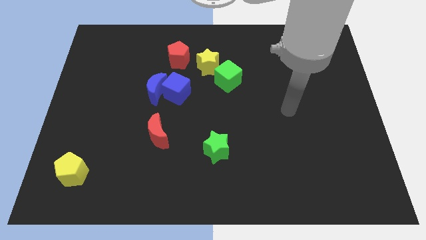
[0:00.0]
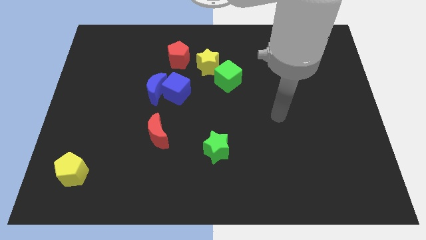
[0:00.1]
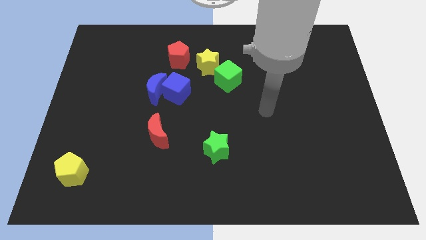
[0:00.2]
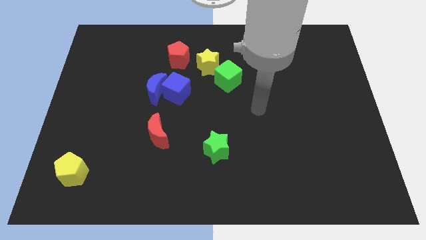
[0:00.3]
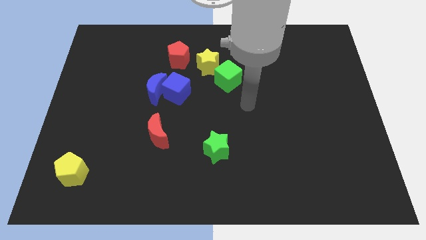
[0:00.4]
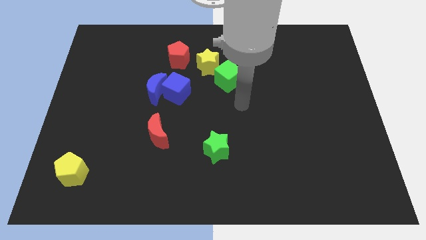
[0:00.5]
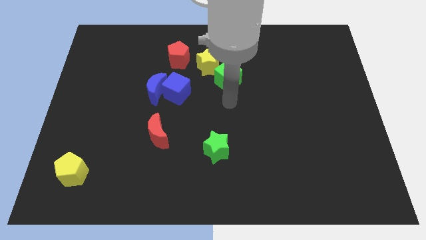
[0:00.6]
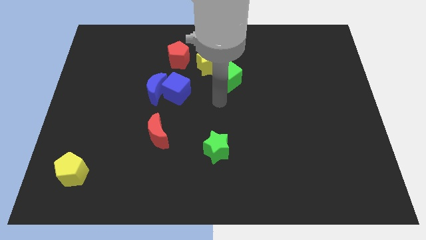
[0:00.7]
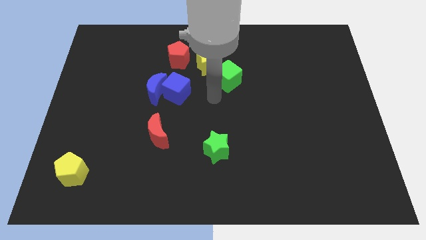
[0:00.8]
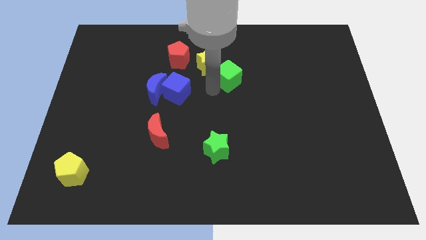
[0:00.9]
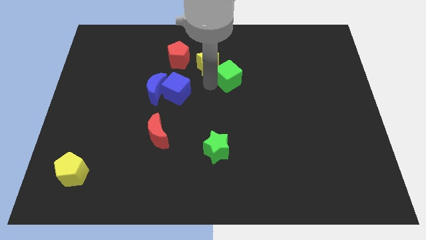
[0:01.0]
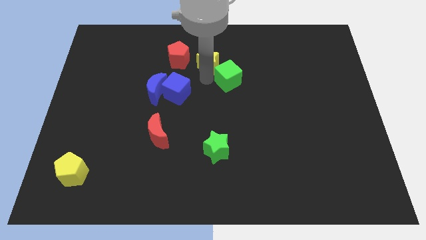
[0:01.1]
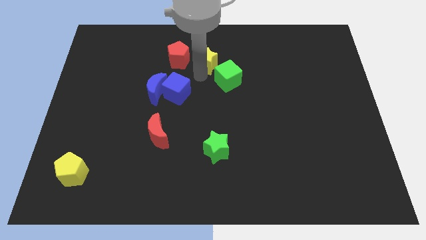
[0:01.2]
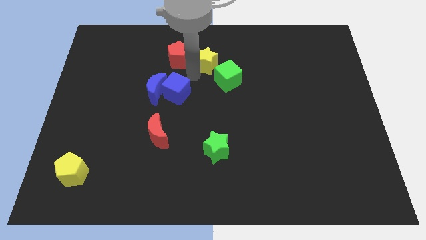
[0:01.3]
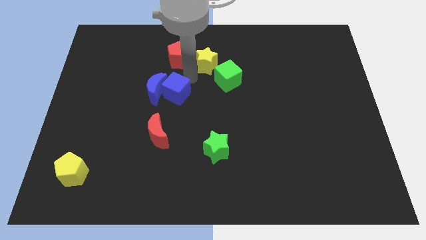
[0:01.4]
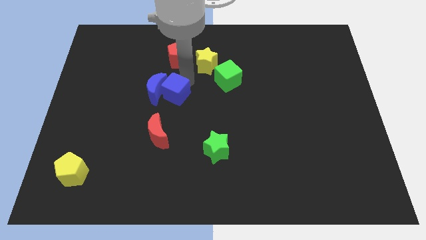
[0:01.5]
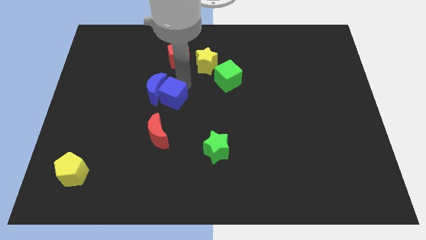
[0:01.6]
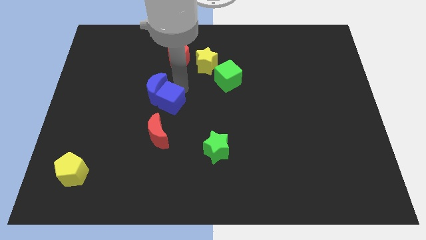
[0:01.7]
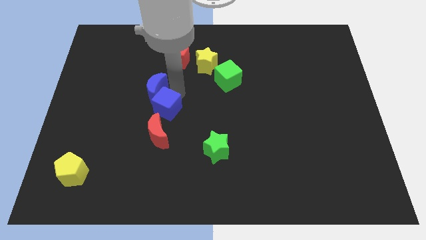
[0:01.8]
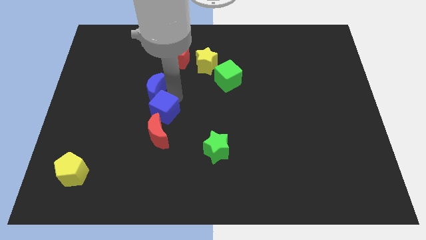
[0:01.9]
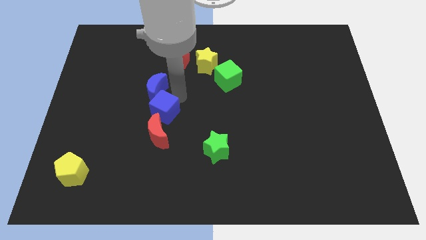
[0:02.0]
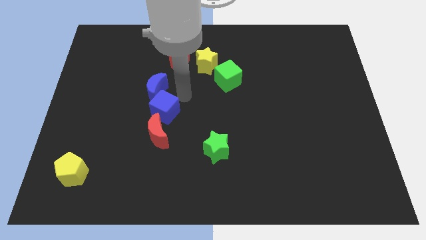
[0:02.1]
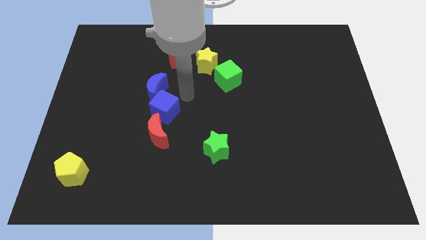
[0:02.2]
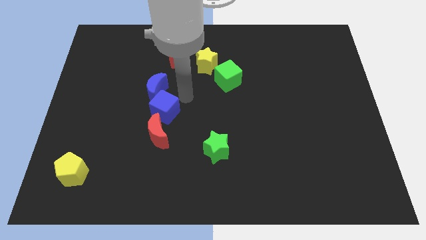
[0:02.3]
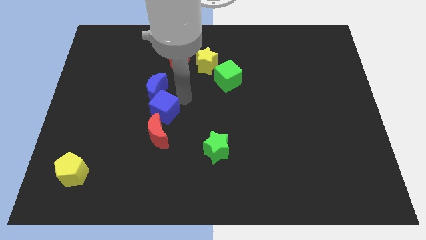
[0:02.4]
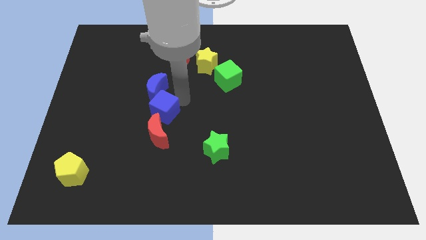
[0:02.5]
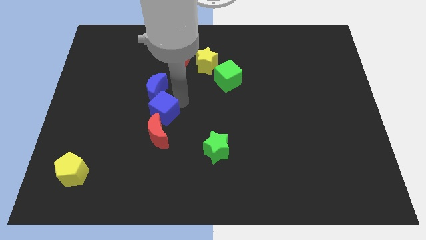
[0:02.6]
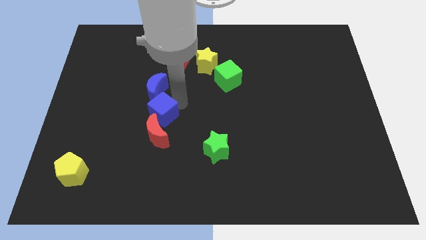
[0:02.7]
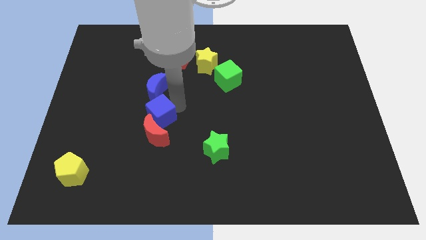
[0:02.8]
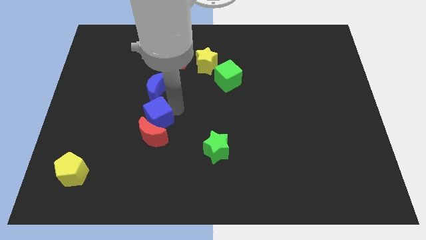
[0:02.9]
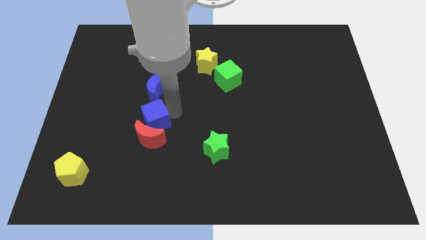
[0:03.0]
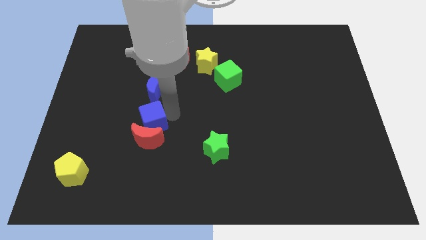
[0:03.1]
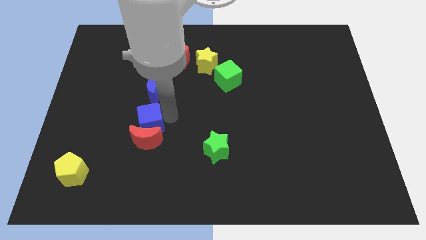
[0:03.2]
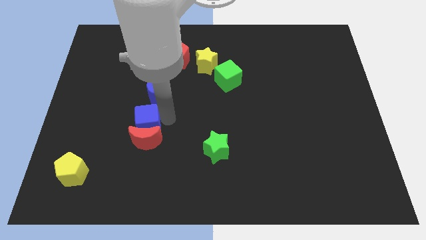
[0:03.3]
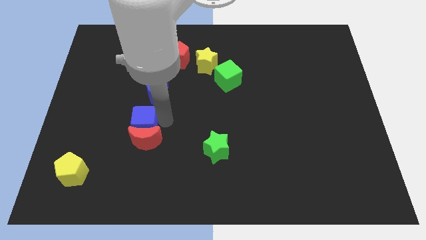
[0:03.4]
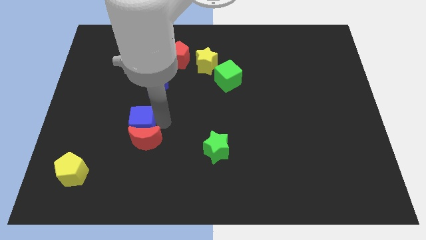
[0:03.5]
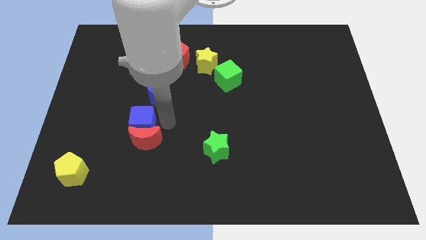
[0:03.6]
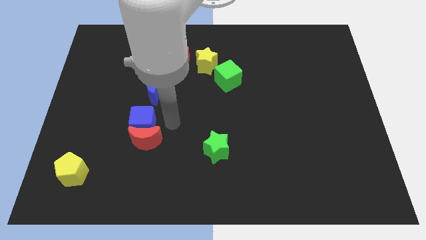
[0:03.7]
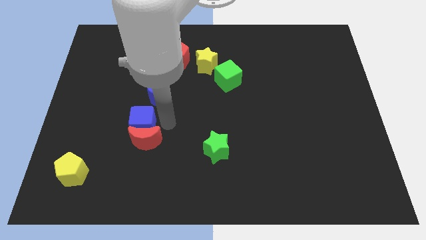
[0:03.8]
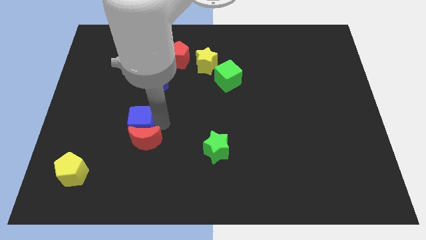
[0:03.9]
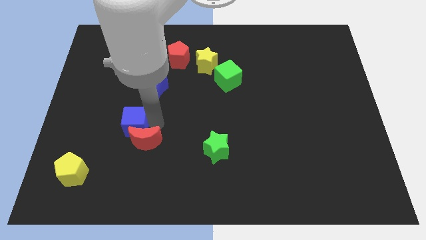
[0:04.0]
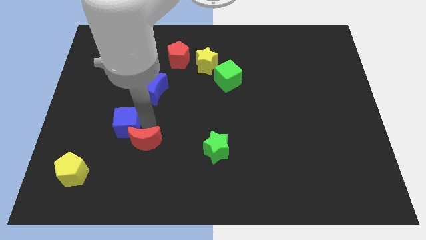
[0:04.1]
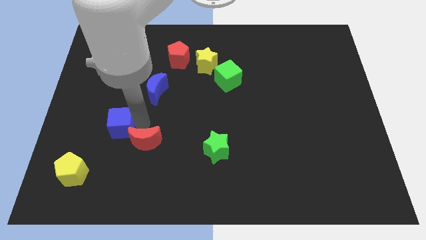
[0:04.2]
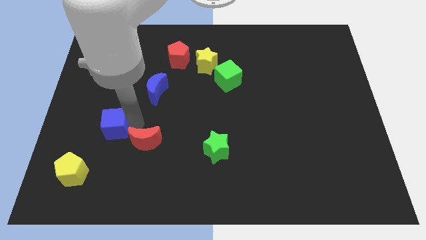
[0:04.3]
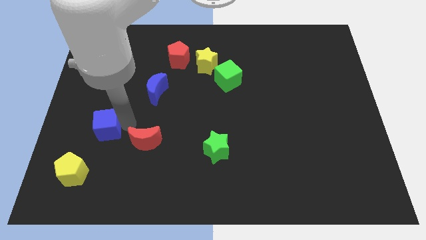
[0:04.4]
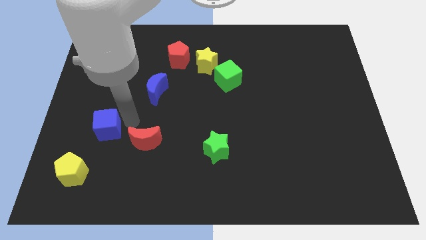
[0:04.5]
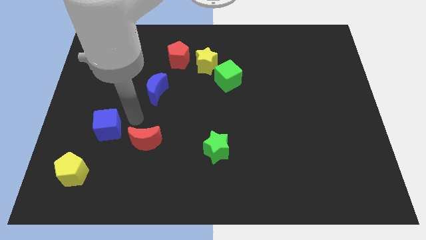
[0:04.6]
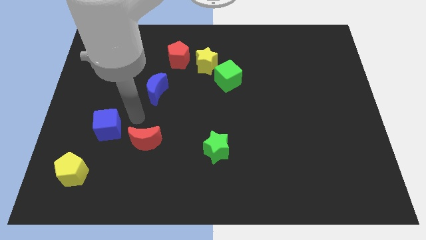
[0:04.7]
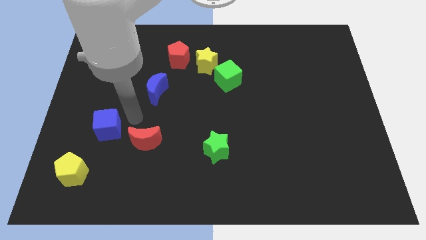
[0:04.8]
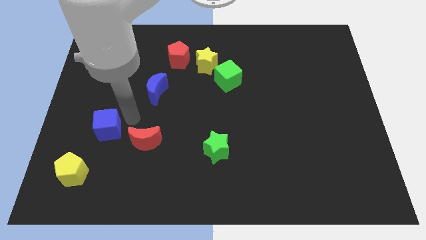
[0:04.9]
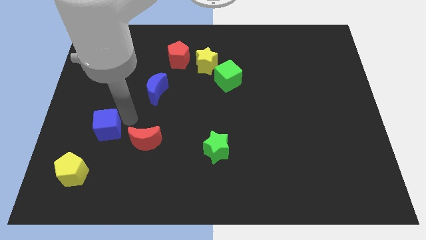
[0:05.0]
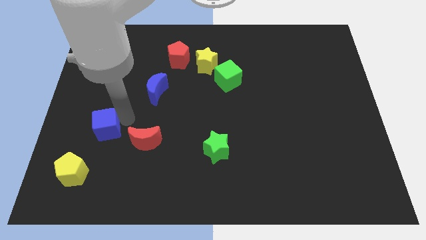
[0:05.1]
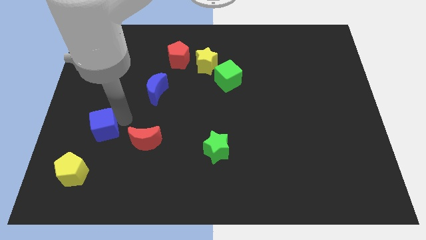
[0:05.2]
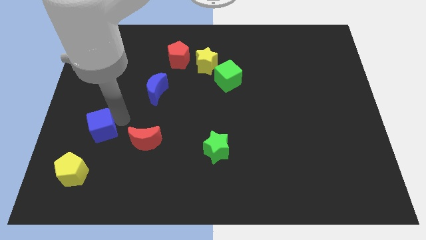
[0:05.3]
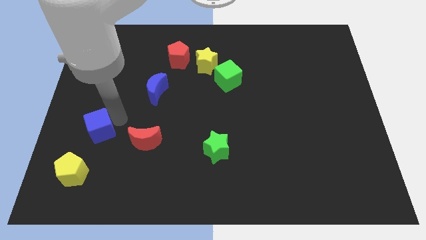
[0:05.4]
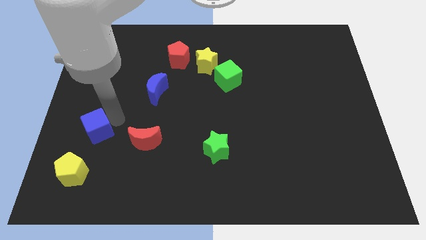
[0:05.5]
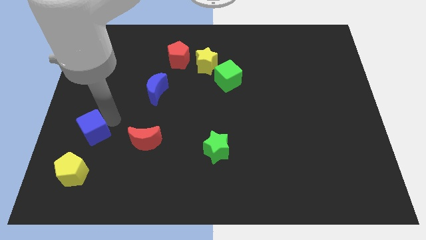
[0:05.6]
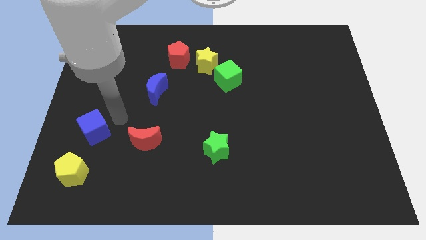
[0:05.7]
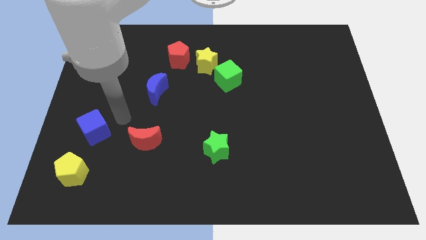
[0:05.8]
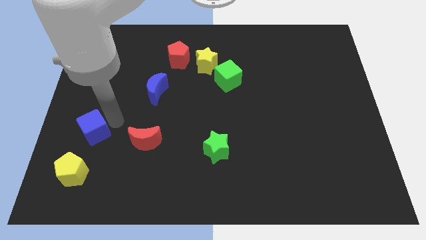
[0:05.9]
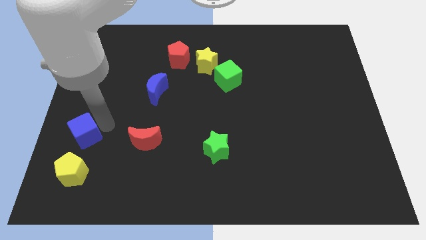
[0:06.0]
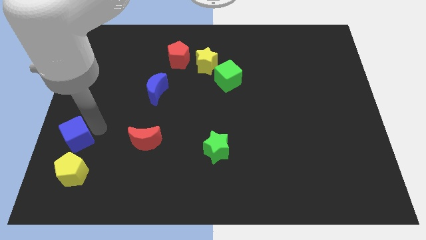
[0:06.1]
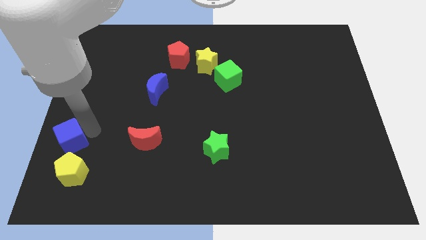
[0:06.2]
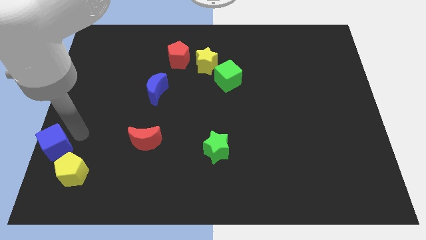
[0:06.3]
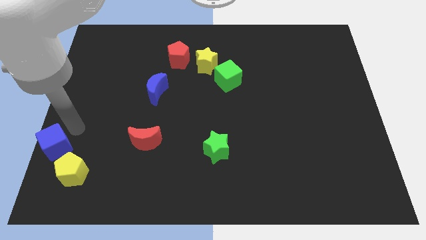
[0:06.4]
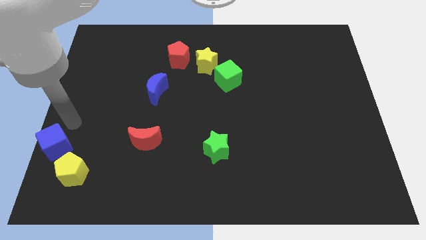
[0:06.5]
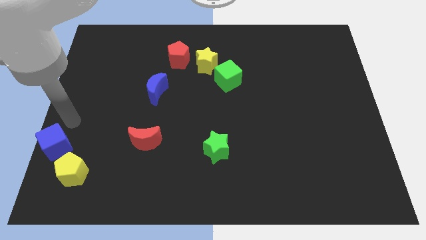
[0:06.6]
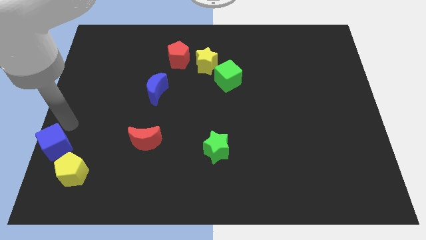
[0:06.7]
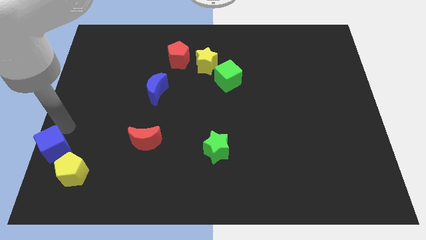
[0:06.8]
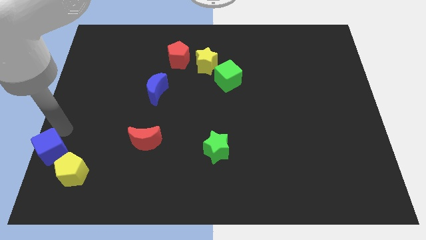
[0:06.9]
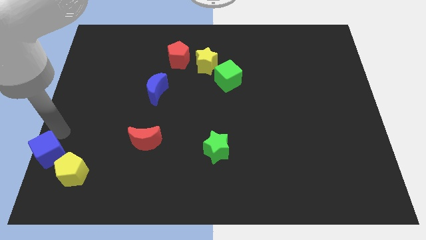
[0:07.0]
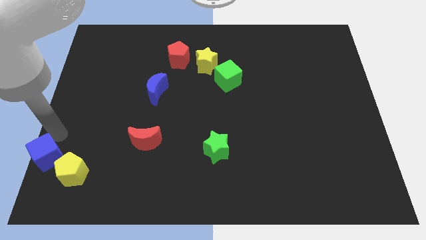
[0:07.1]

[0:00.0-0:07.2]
slide the blue cube to the bottom left
